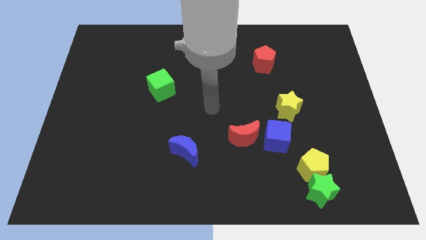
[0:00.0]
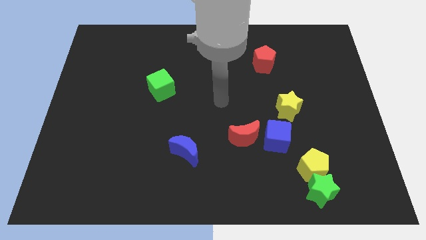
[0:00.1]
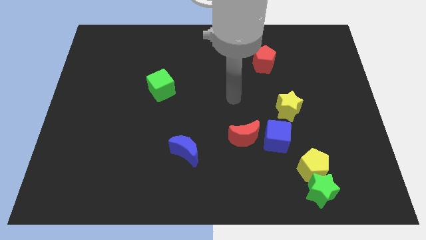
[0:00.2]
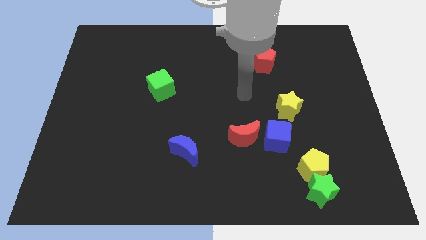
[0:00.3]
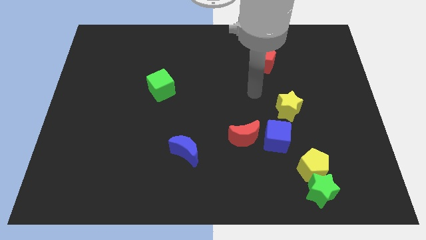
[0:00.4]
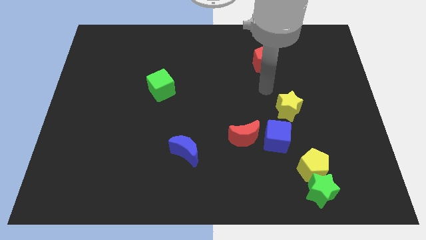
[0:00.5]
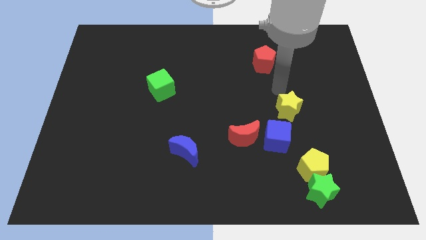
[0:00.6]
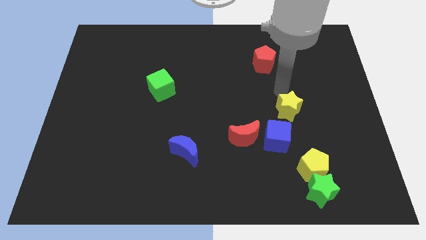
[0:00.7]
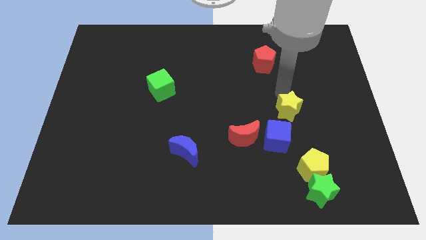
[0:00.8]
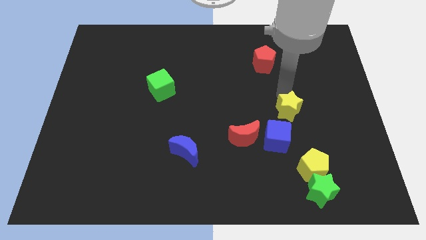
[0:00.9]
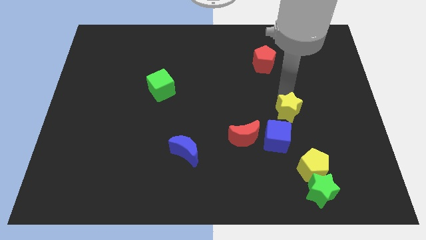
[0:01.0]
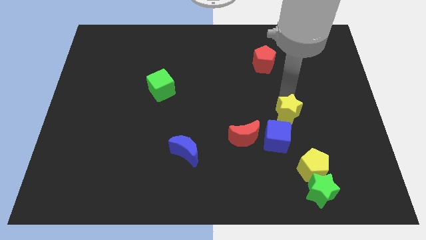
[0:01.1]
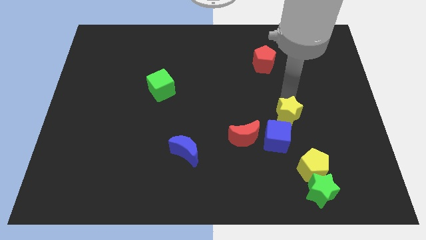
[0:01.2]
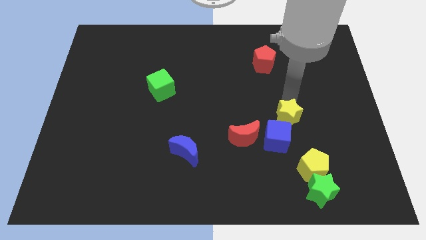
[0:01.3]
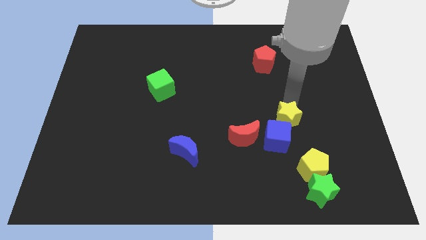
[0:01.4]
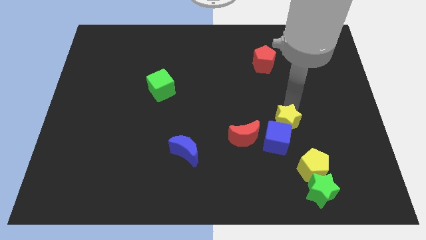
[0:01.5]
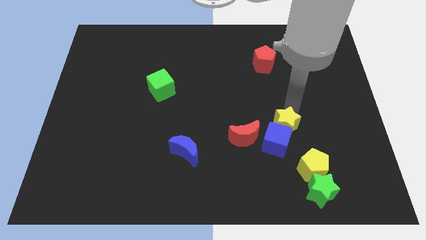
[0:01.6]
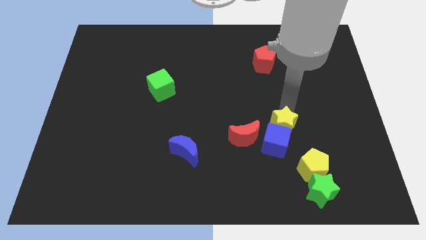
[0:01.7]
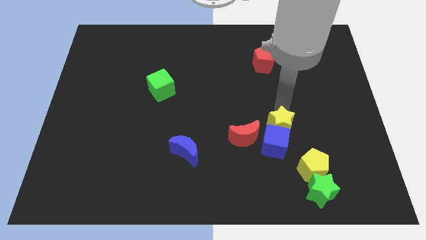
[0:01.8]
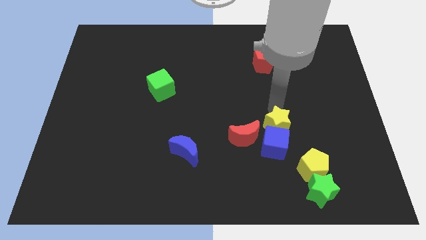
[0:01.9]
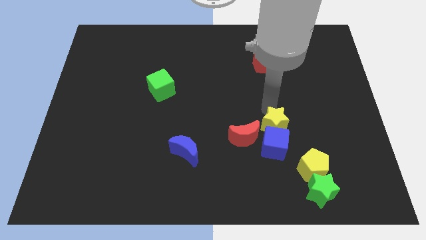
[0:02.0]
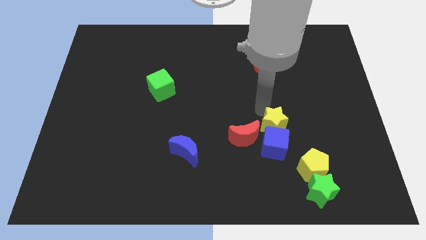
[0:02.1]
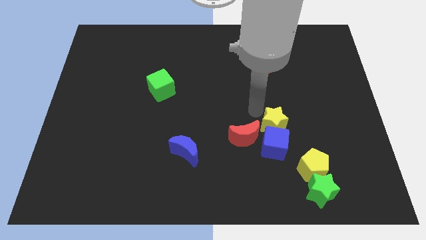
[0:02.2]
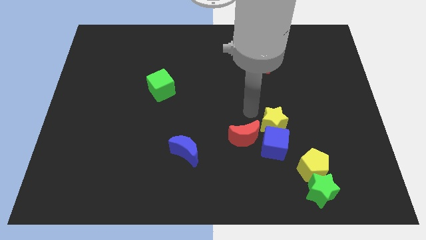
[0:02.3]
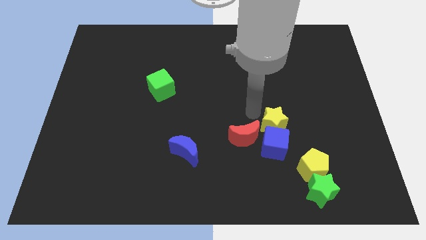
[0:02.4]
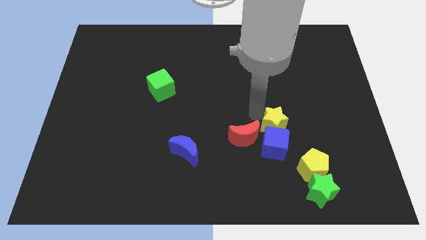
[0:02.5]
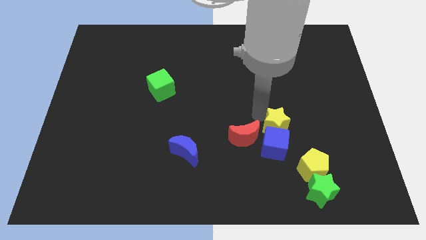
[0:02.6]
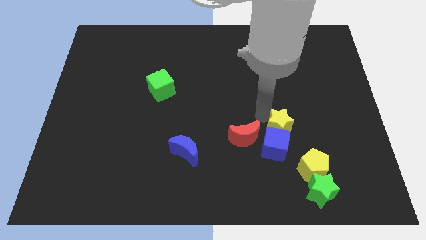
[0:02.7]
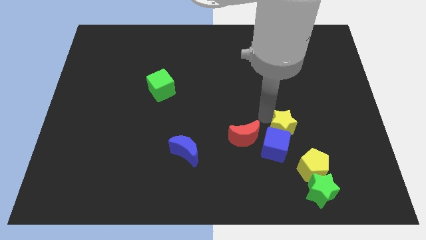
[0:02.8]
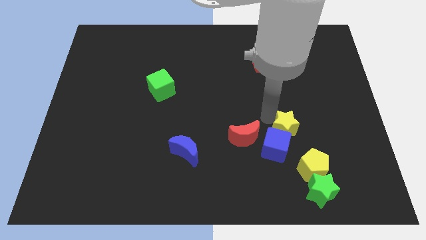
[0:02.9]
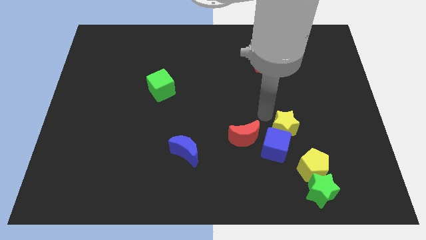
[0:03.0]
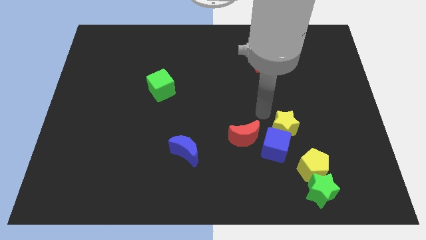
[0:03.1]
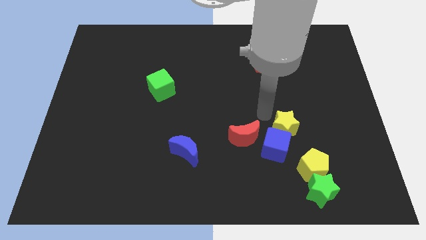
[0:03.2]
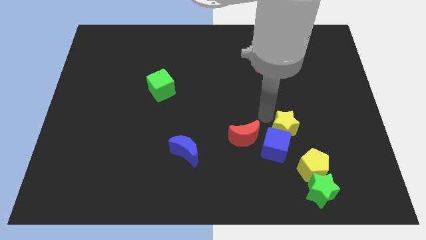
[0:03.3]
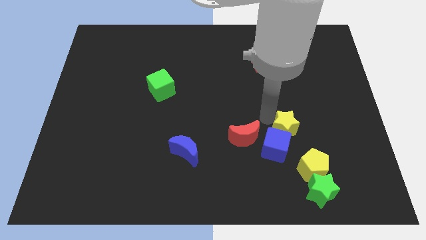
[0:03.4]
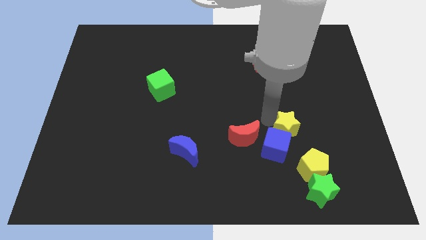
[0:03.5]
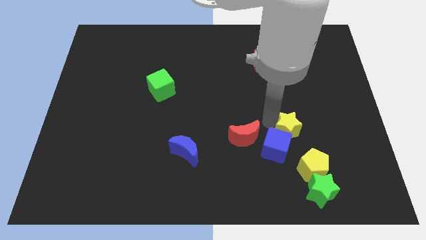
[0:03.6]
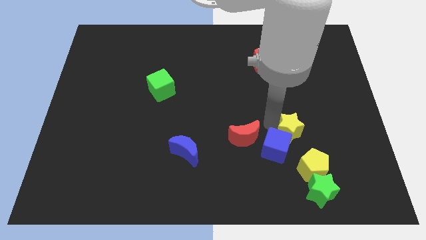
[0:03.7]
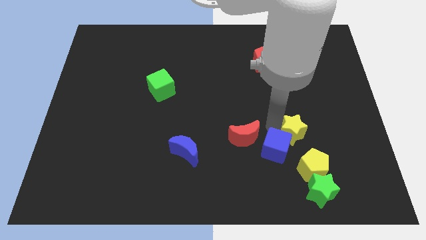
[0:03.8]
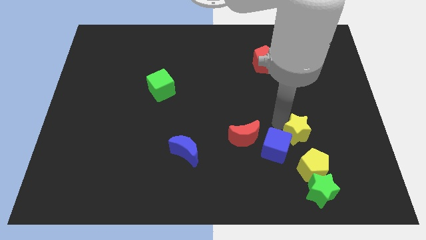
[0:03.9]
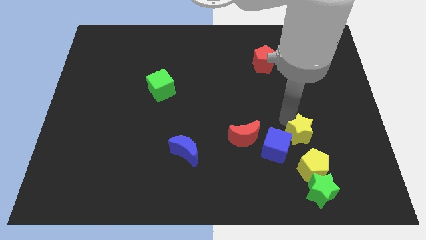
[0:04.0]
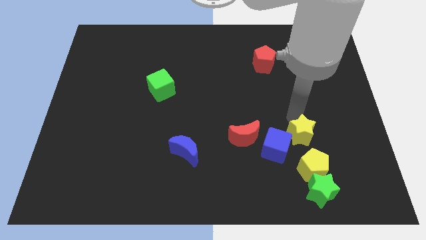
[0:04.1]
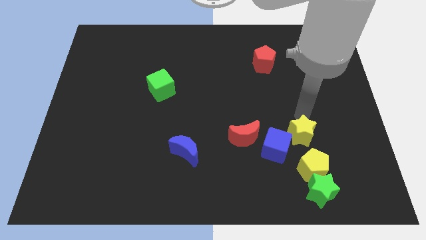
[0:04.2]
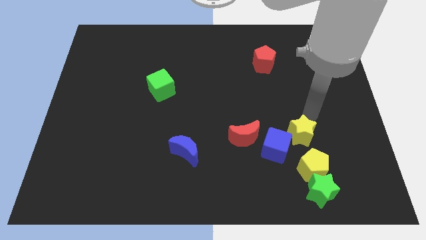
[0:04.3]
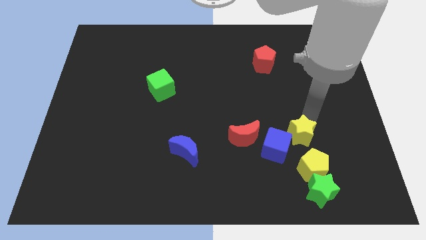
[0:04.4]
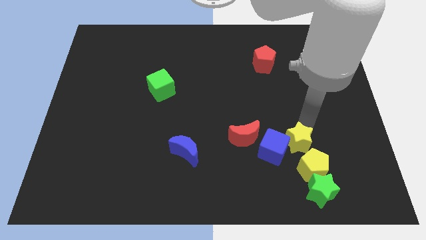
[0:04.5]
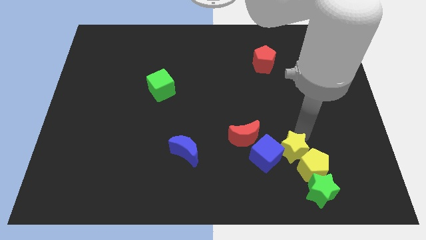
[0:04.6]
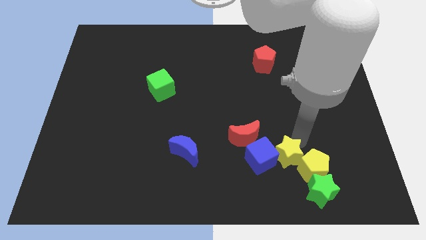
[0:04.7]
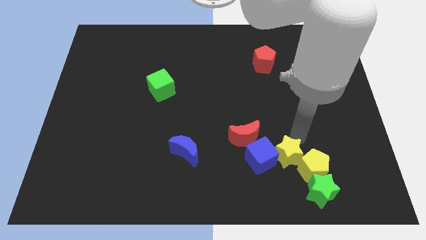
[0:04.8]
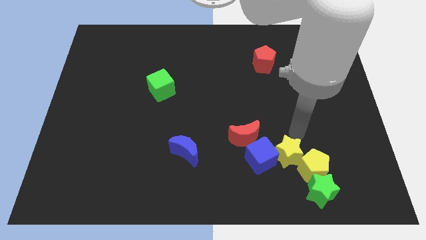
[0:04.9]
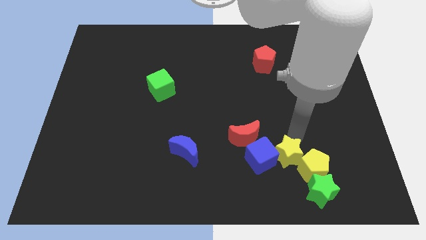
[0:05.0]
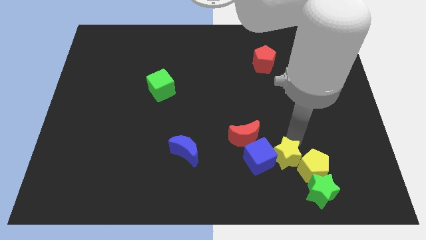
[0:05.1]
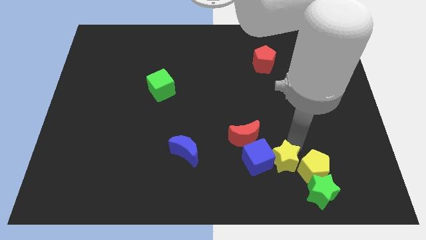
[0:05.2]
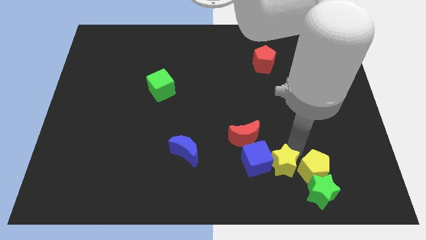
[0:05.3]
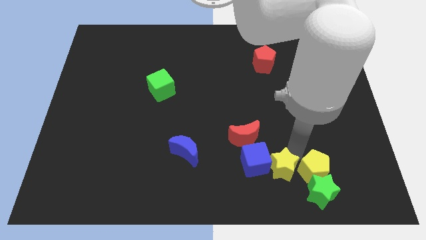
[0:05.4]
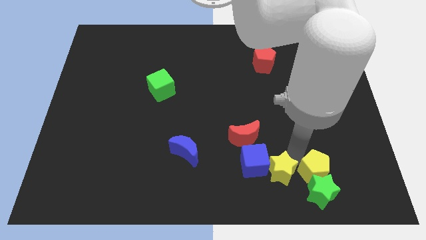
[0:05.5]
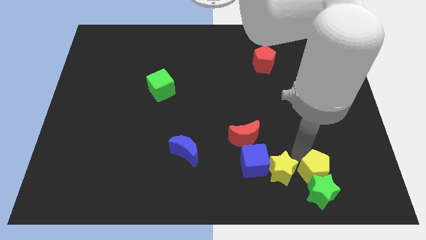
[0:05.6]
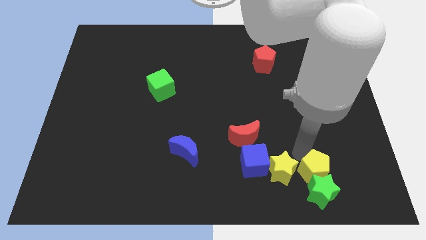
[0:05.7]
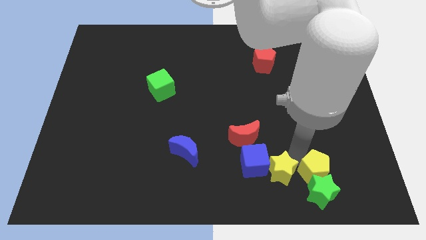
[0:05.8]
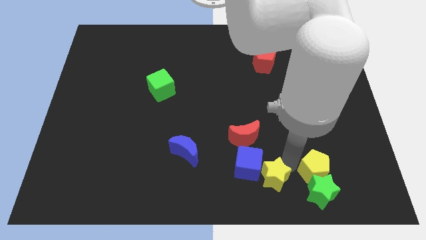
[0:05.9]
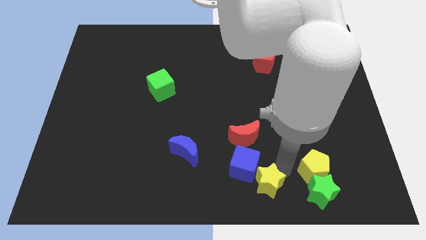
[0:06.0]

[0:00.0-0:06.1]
slide the yellow star to the bottom side

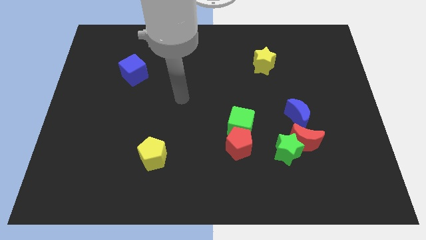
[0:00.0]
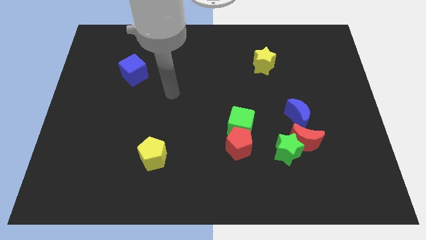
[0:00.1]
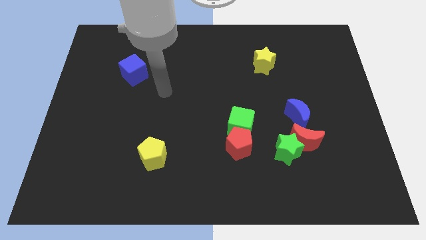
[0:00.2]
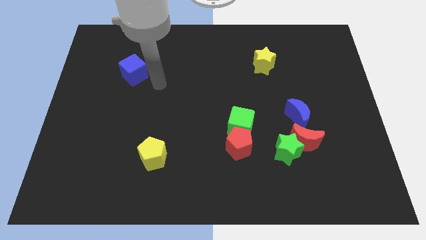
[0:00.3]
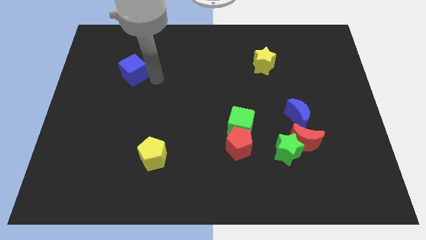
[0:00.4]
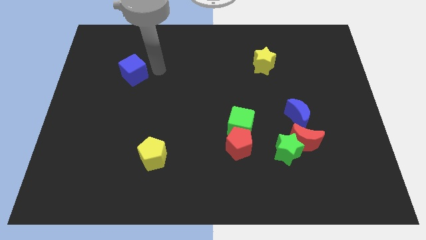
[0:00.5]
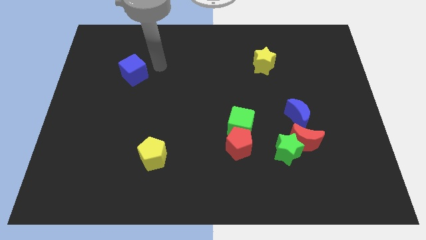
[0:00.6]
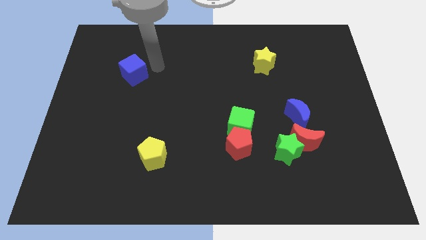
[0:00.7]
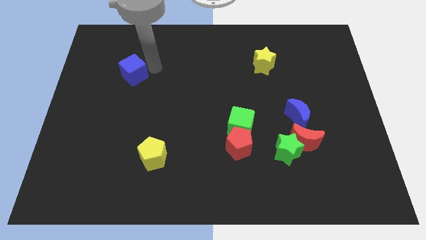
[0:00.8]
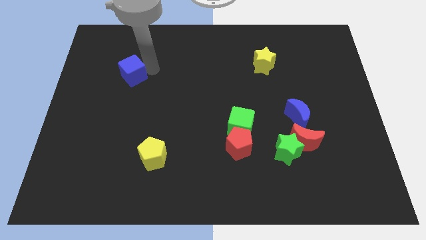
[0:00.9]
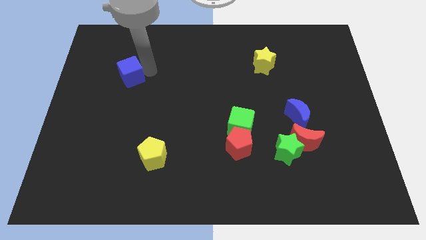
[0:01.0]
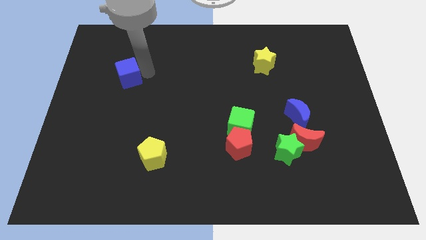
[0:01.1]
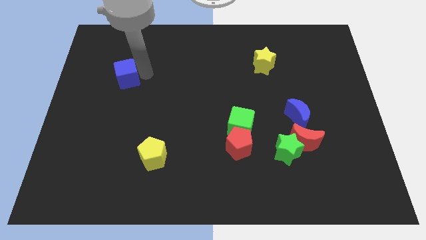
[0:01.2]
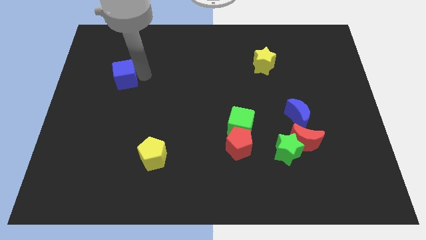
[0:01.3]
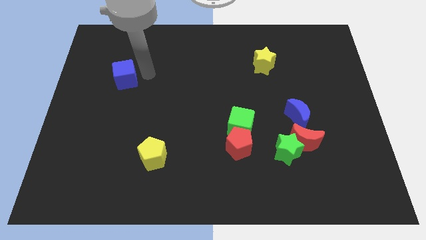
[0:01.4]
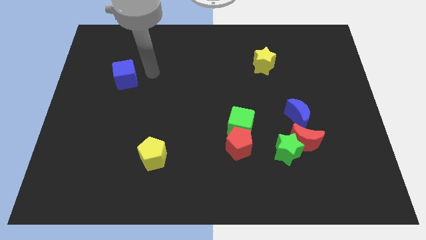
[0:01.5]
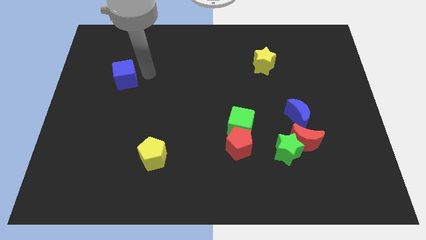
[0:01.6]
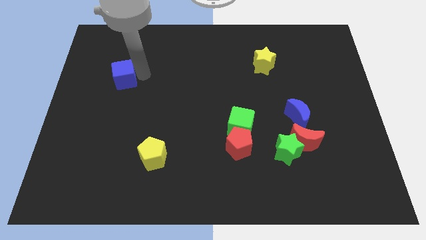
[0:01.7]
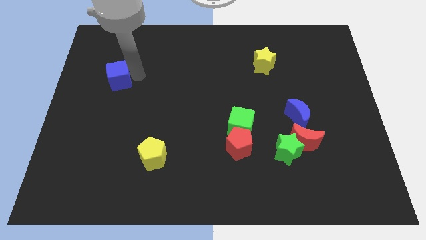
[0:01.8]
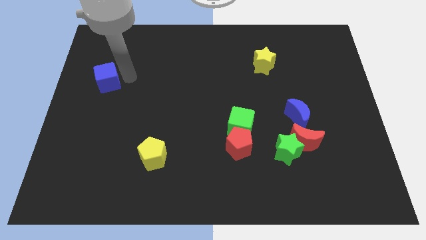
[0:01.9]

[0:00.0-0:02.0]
put the blue cube to the left side
